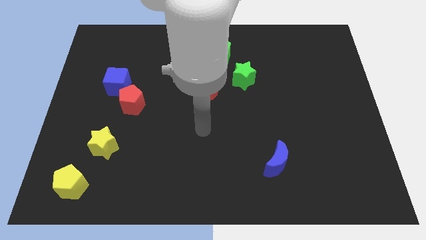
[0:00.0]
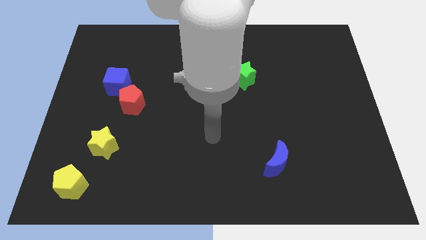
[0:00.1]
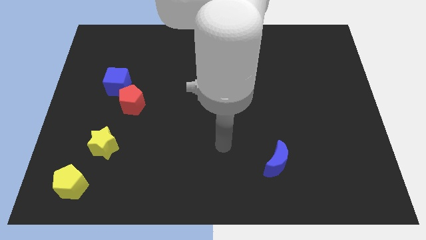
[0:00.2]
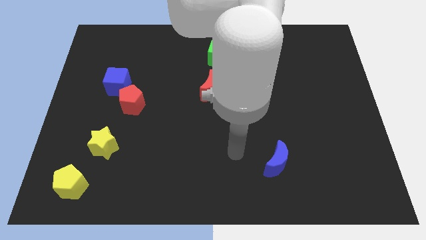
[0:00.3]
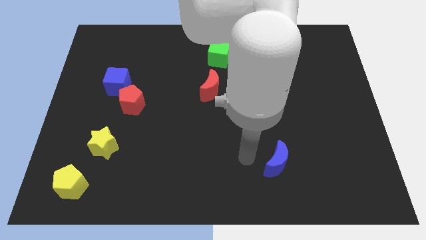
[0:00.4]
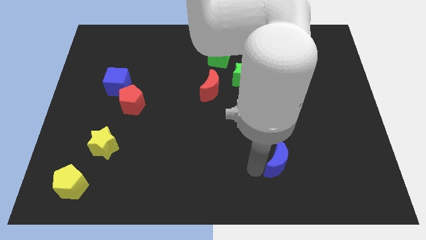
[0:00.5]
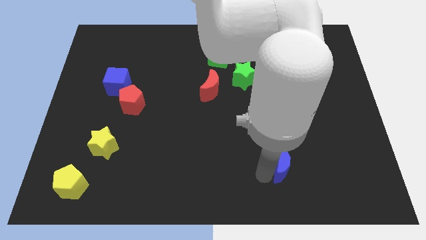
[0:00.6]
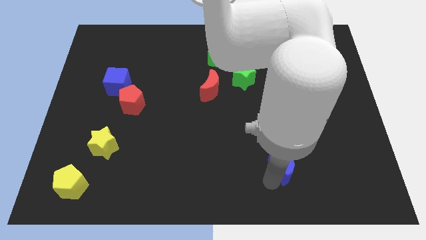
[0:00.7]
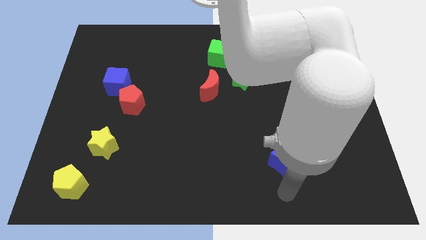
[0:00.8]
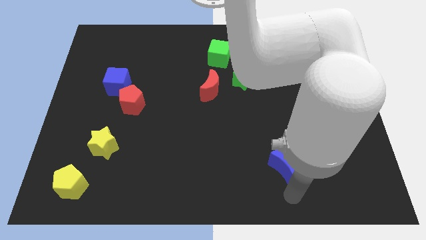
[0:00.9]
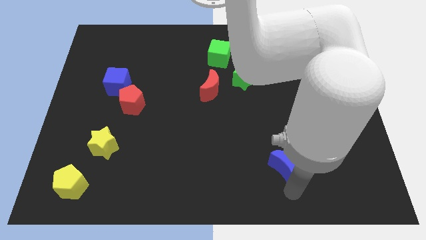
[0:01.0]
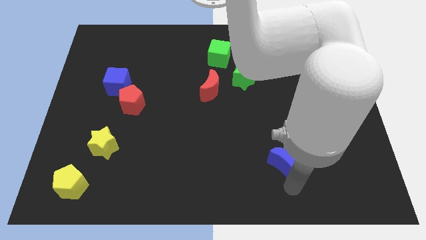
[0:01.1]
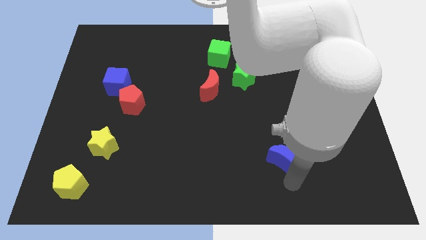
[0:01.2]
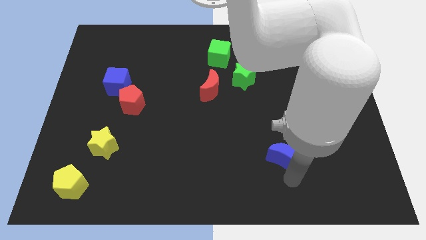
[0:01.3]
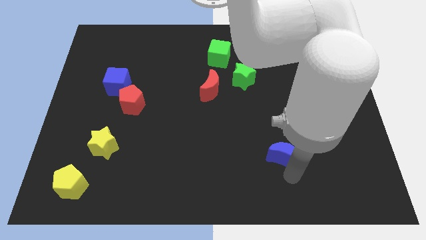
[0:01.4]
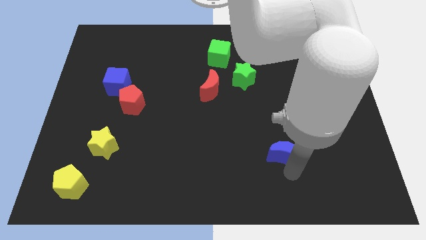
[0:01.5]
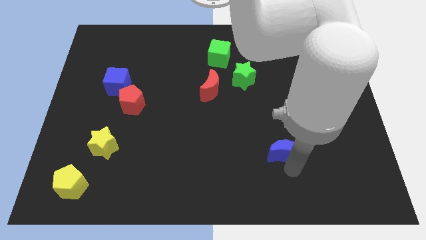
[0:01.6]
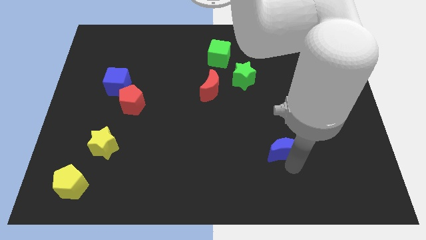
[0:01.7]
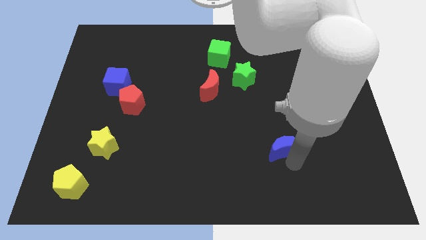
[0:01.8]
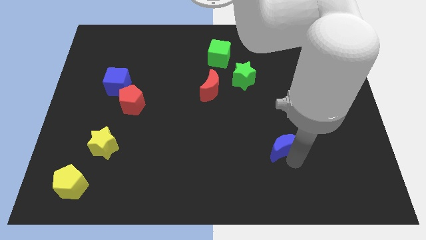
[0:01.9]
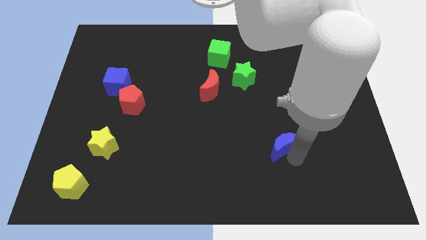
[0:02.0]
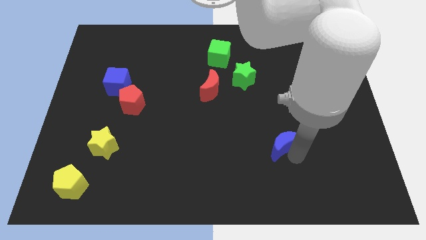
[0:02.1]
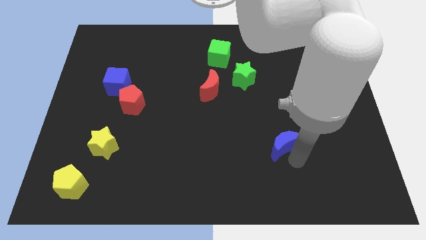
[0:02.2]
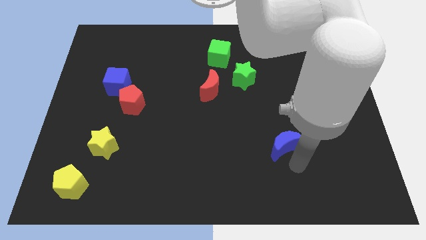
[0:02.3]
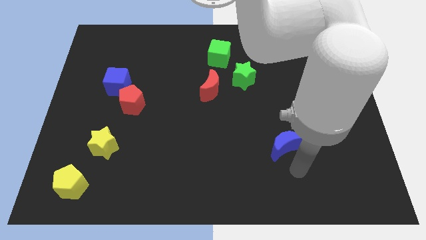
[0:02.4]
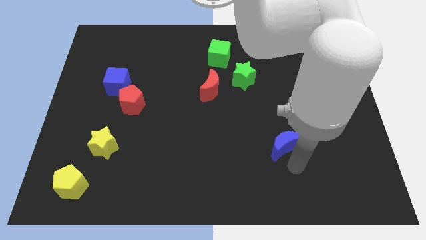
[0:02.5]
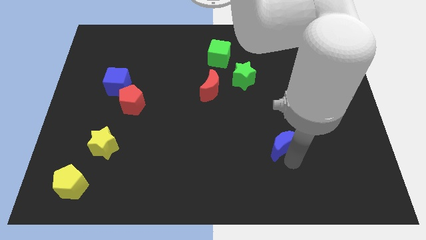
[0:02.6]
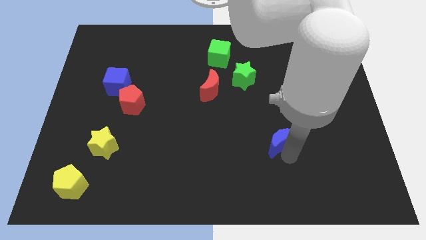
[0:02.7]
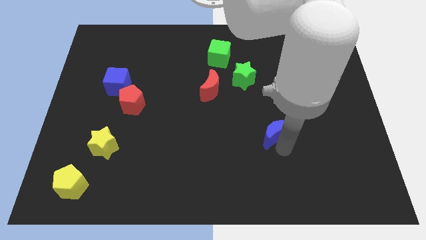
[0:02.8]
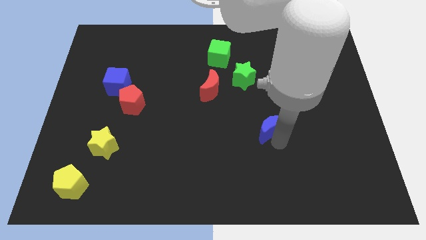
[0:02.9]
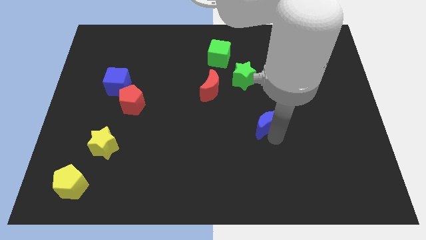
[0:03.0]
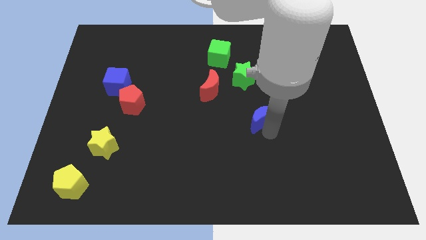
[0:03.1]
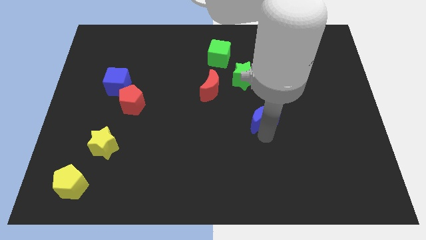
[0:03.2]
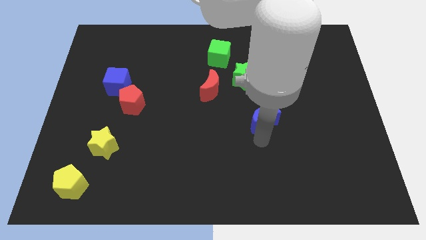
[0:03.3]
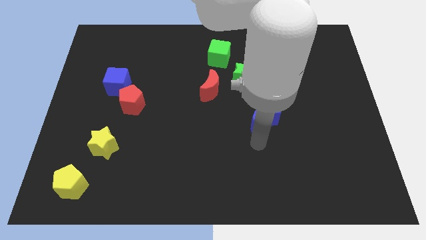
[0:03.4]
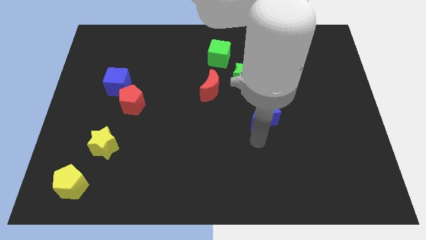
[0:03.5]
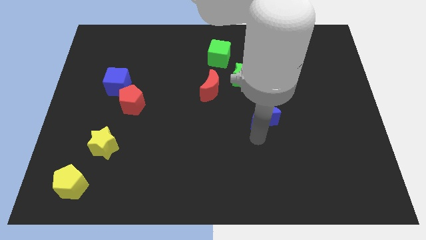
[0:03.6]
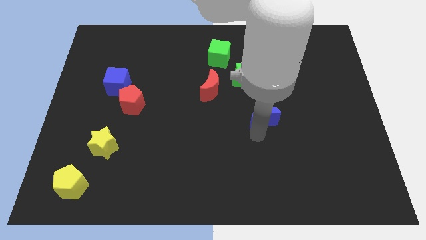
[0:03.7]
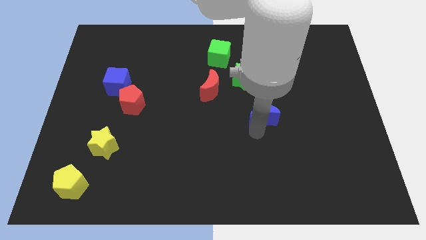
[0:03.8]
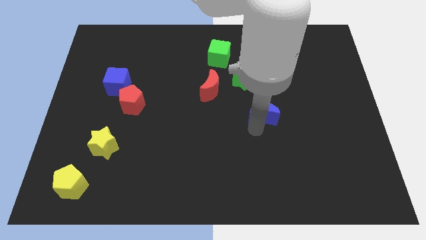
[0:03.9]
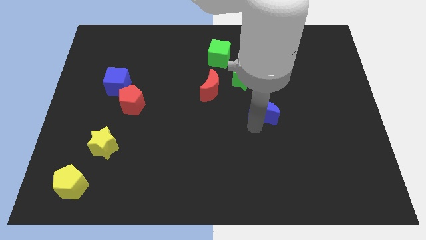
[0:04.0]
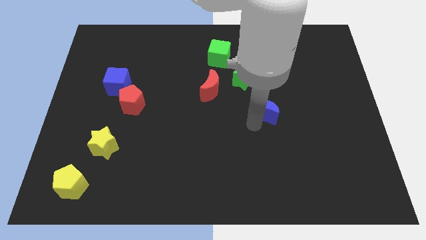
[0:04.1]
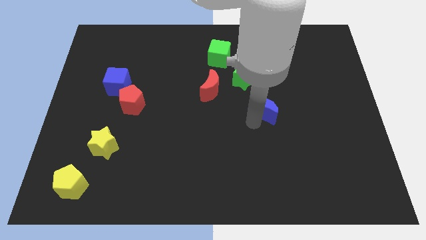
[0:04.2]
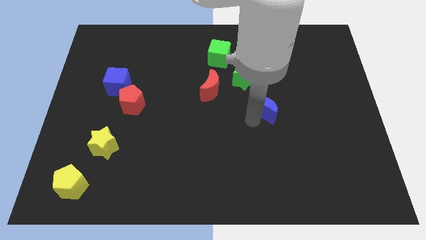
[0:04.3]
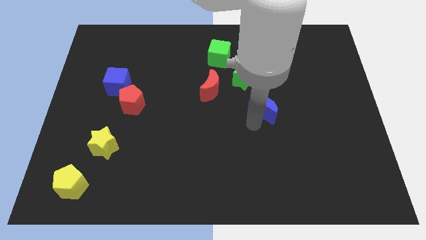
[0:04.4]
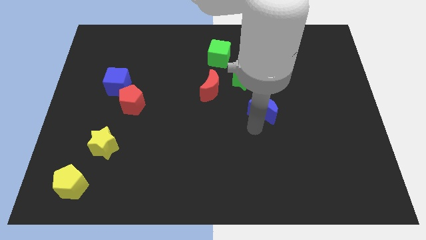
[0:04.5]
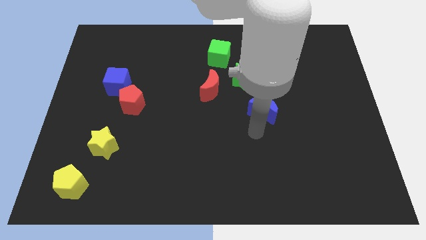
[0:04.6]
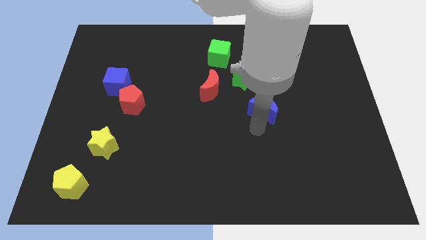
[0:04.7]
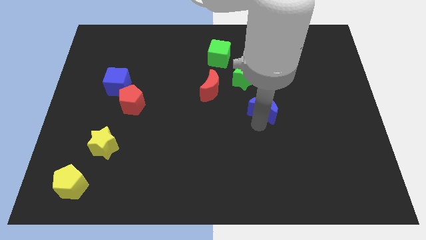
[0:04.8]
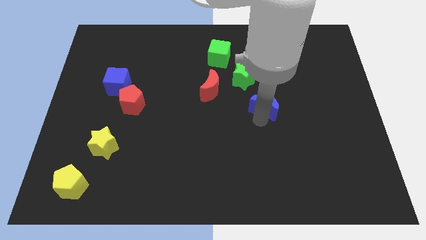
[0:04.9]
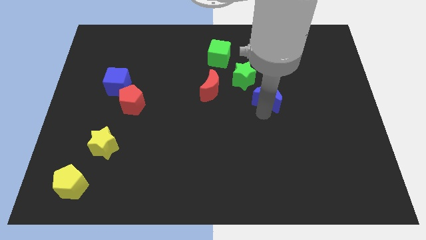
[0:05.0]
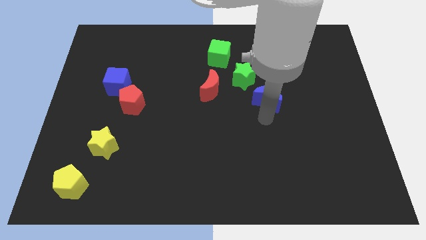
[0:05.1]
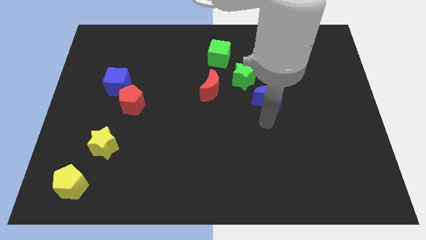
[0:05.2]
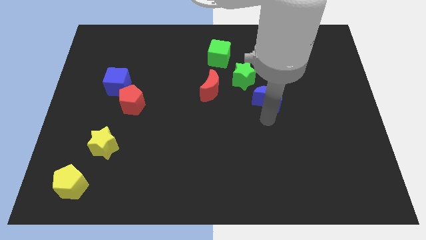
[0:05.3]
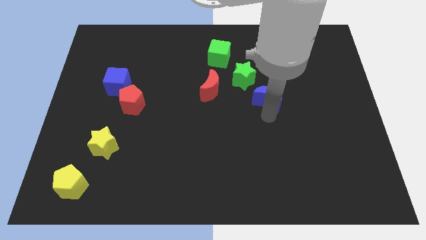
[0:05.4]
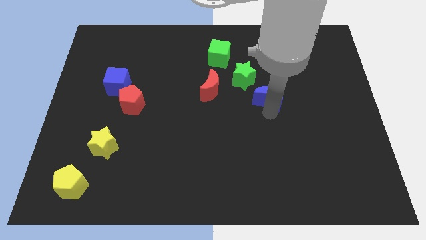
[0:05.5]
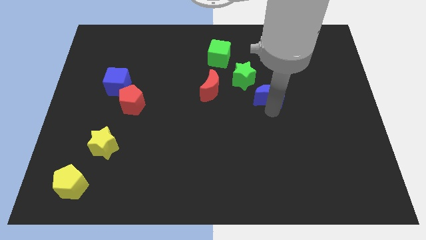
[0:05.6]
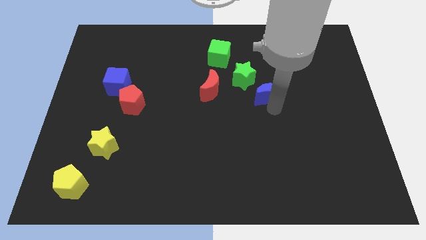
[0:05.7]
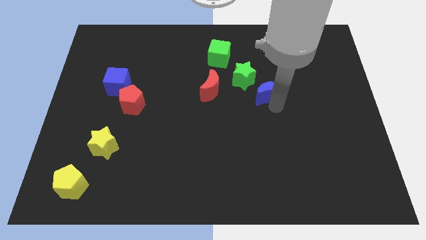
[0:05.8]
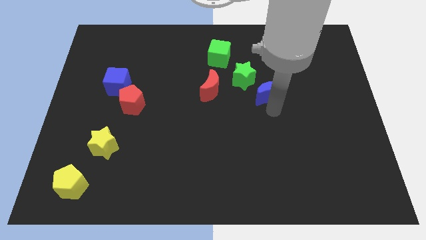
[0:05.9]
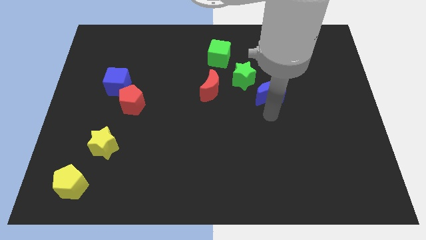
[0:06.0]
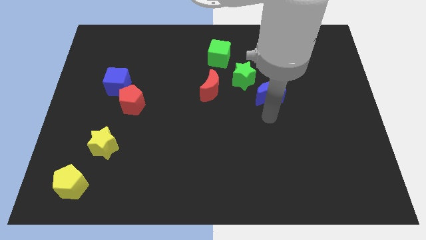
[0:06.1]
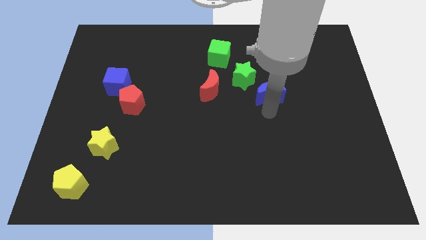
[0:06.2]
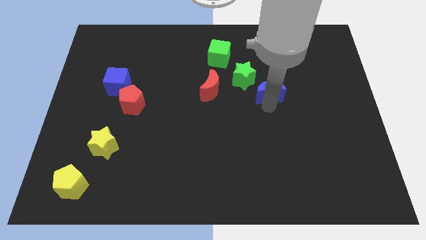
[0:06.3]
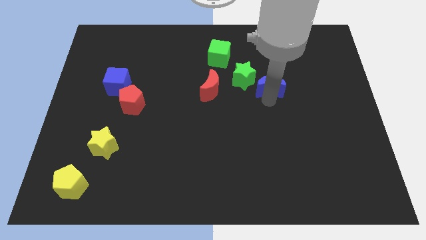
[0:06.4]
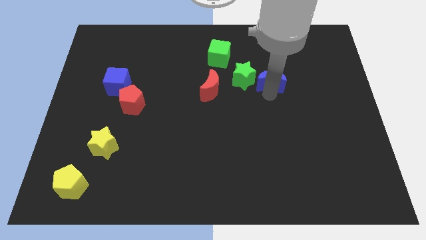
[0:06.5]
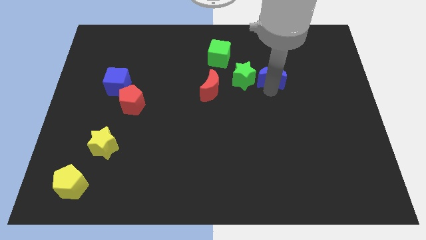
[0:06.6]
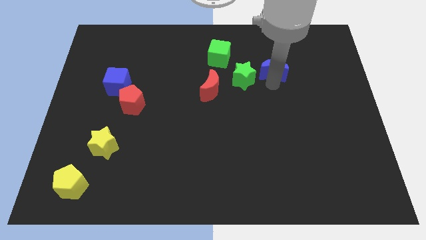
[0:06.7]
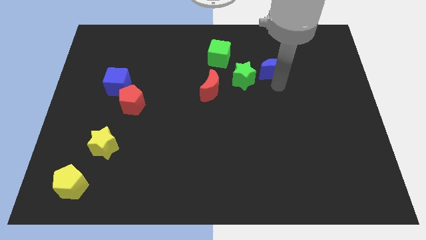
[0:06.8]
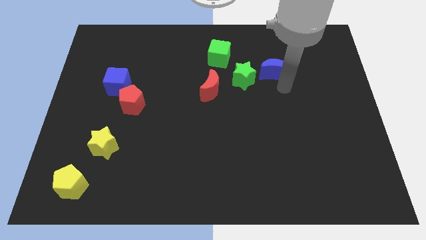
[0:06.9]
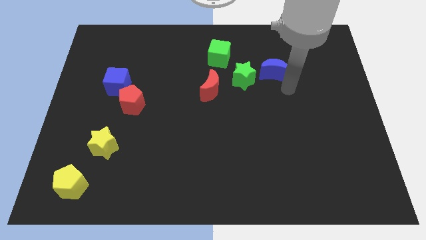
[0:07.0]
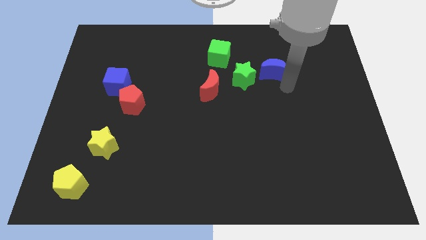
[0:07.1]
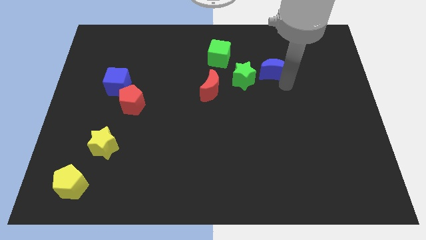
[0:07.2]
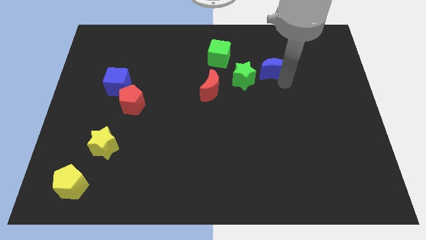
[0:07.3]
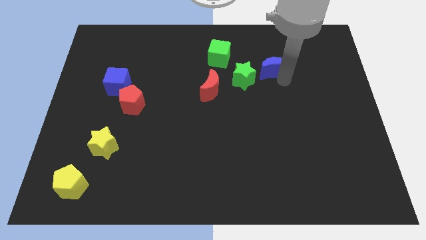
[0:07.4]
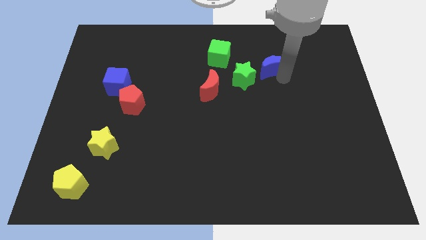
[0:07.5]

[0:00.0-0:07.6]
push the blue moon right of the green cube
